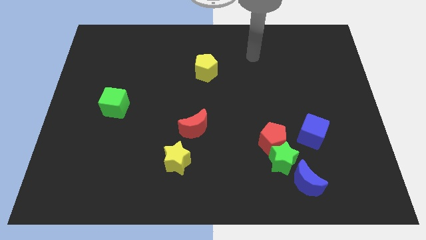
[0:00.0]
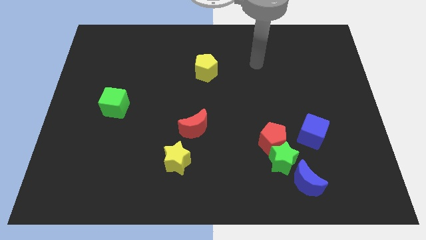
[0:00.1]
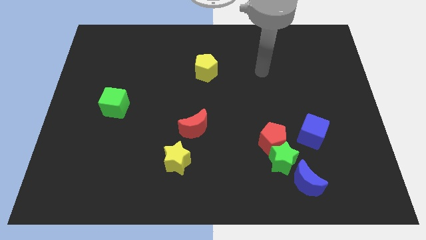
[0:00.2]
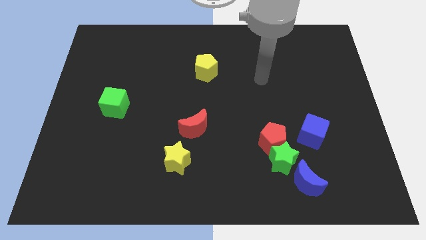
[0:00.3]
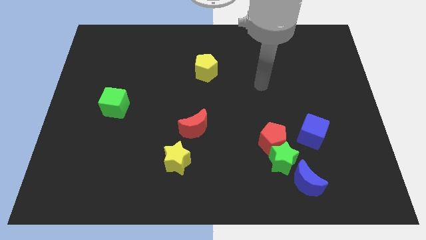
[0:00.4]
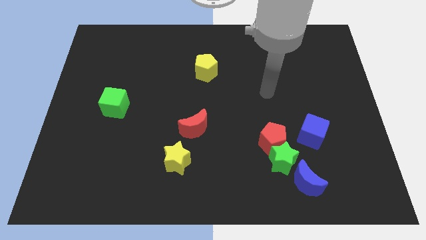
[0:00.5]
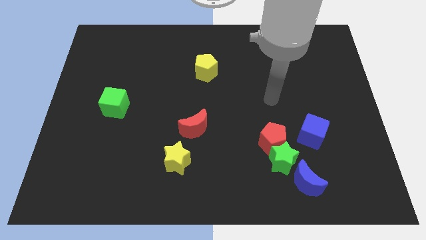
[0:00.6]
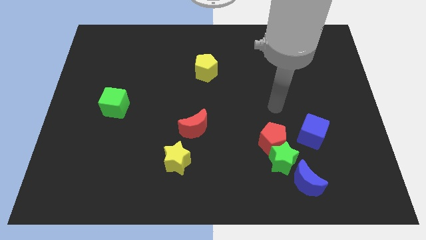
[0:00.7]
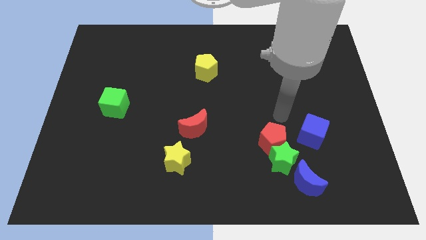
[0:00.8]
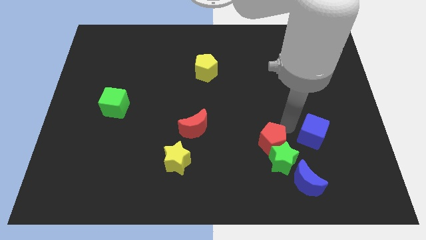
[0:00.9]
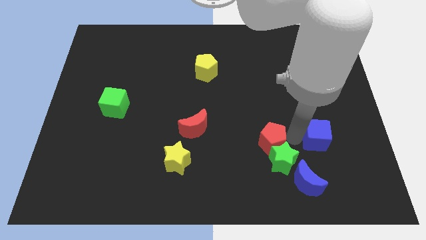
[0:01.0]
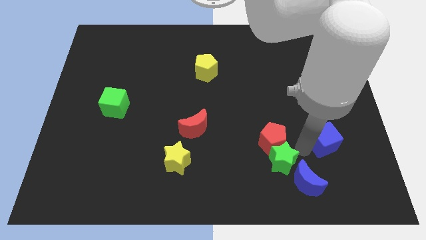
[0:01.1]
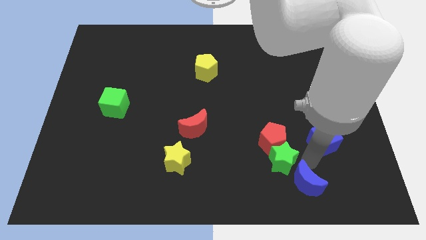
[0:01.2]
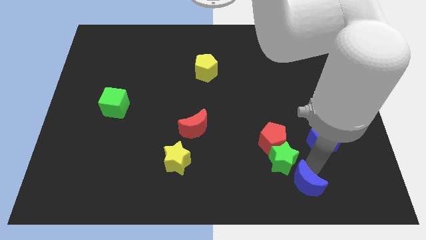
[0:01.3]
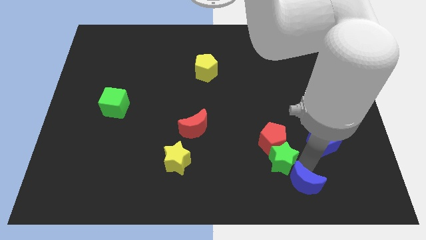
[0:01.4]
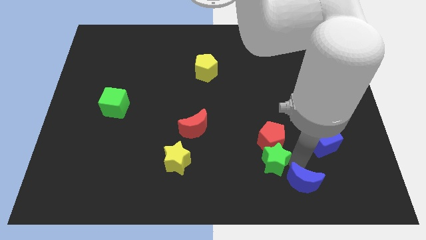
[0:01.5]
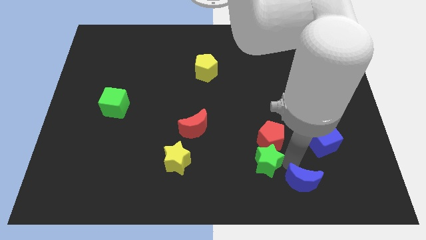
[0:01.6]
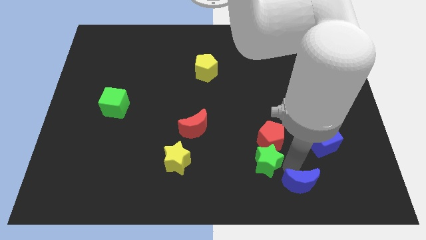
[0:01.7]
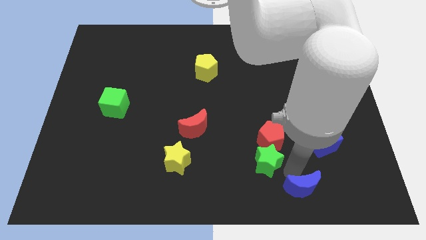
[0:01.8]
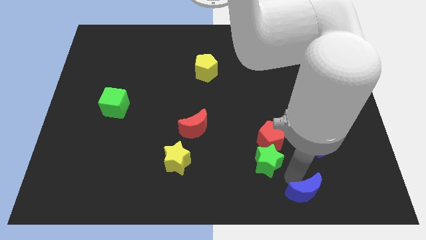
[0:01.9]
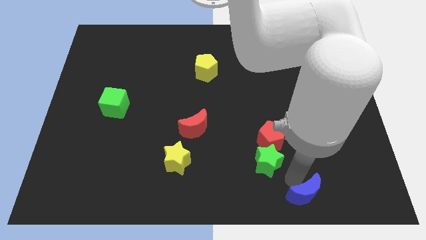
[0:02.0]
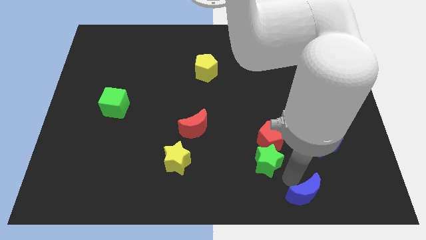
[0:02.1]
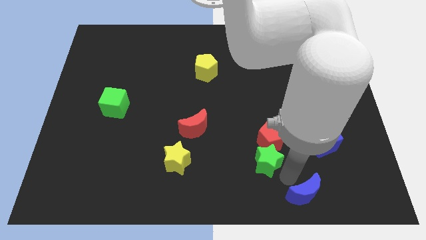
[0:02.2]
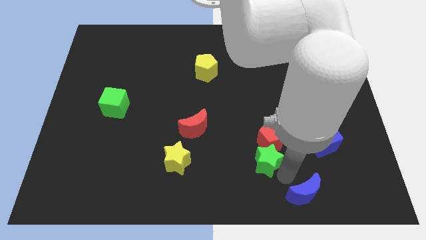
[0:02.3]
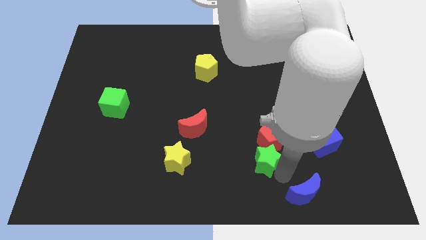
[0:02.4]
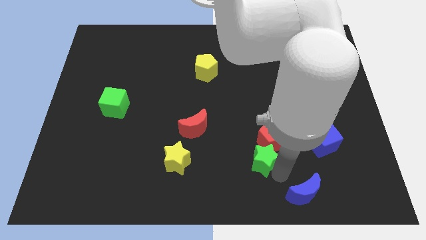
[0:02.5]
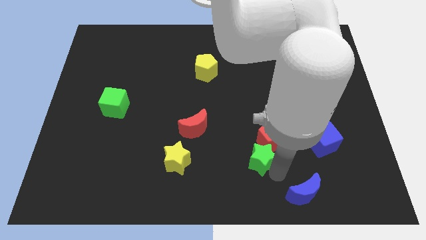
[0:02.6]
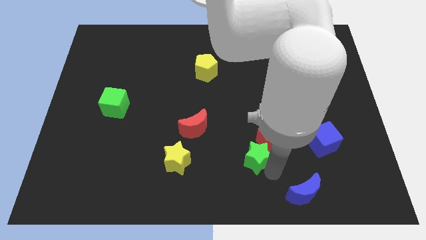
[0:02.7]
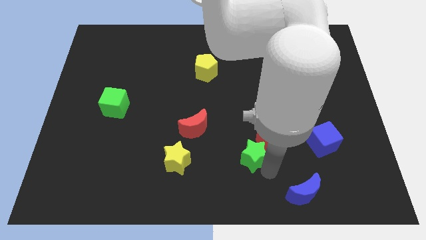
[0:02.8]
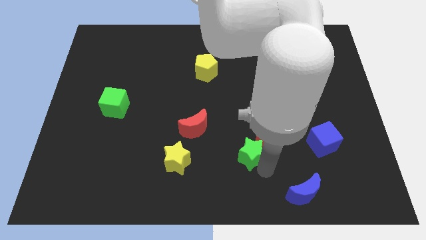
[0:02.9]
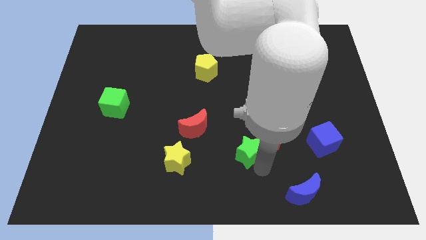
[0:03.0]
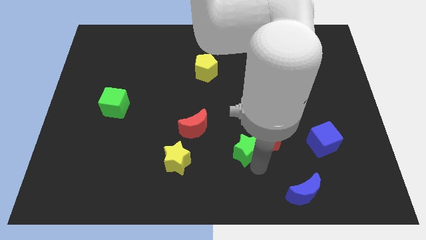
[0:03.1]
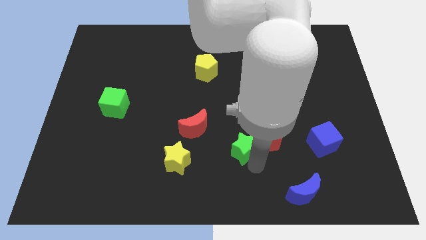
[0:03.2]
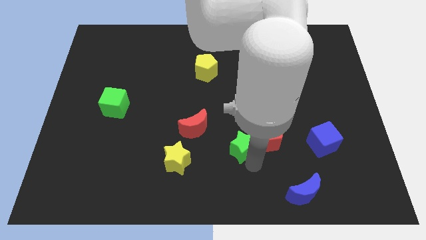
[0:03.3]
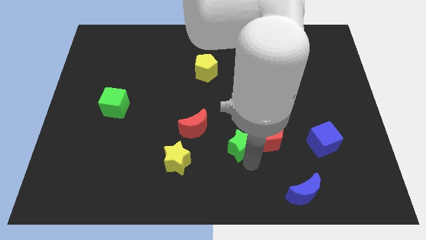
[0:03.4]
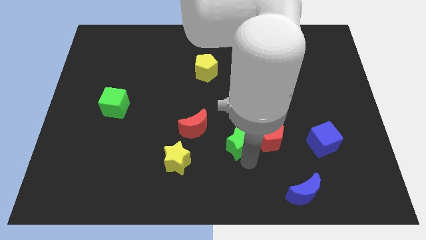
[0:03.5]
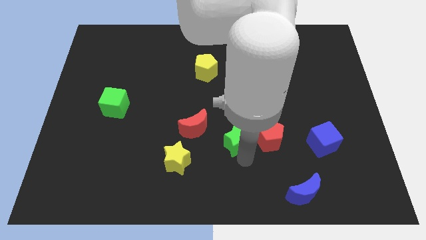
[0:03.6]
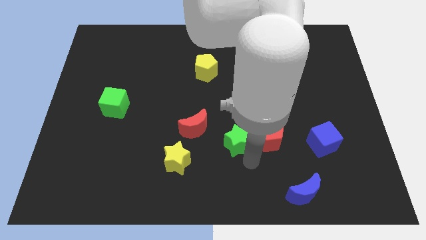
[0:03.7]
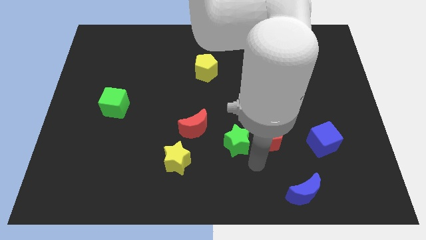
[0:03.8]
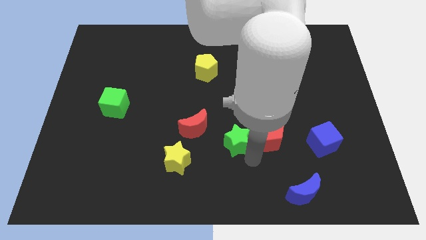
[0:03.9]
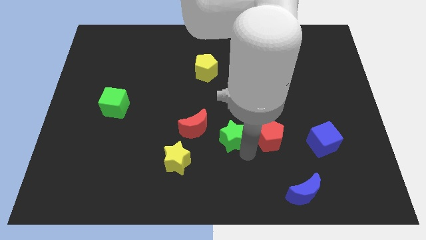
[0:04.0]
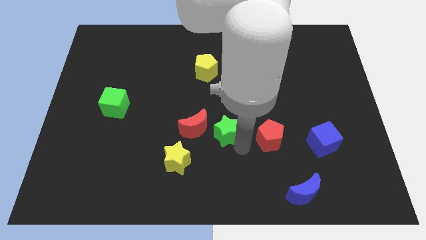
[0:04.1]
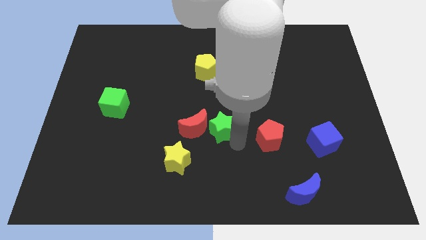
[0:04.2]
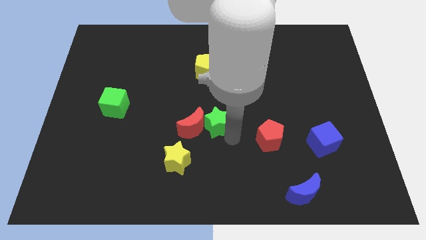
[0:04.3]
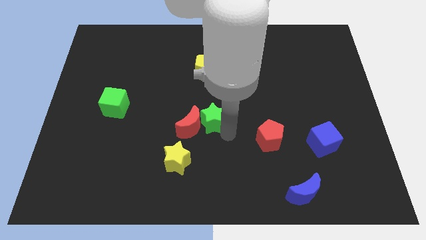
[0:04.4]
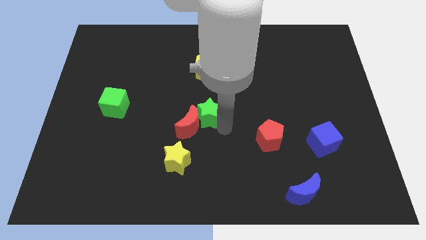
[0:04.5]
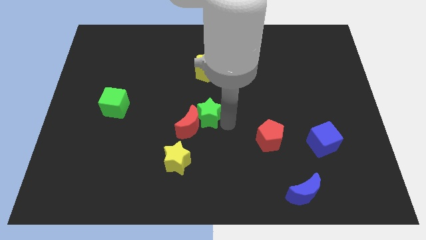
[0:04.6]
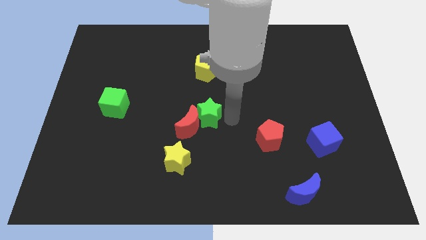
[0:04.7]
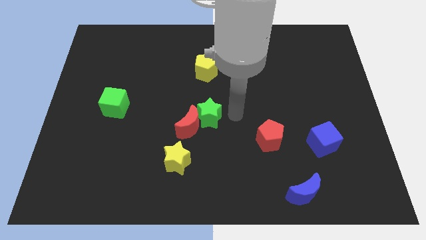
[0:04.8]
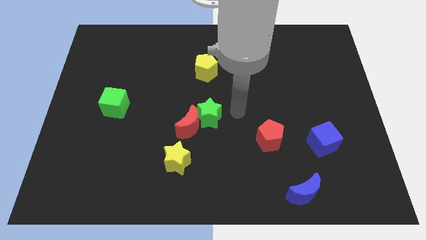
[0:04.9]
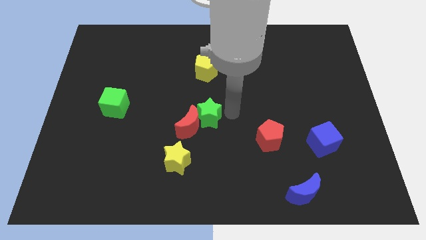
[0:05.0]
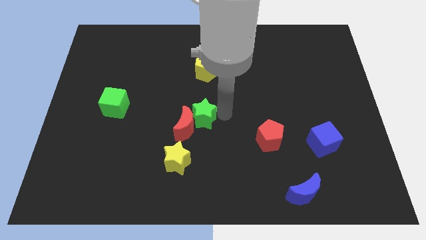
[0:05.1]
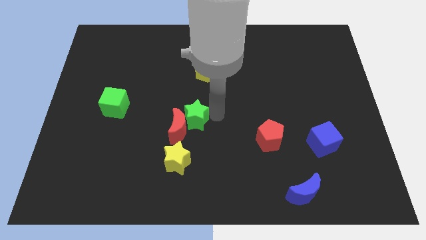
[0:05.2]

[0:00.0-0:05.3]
slide the green star to the top of the yellow star

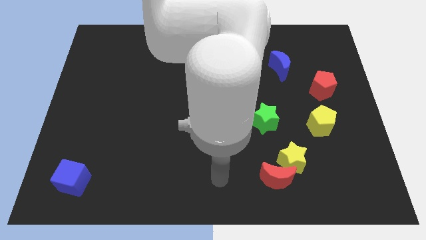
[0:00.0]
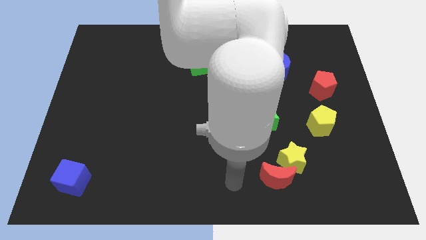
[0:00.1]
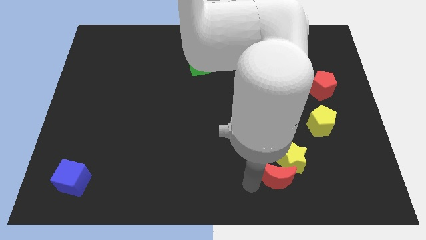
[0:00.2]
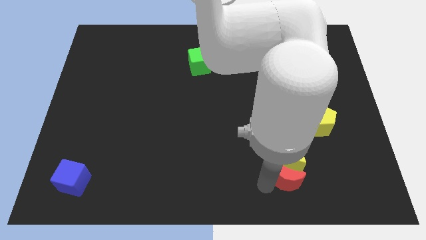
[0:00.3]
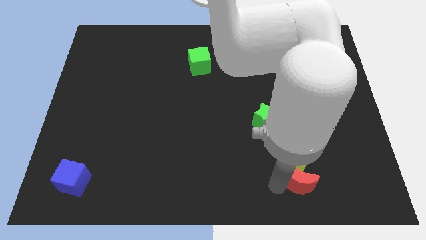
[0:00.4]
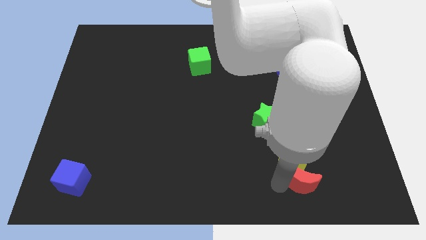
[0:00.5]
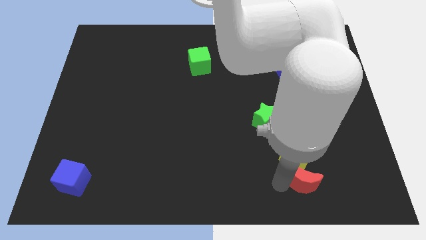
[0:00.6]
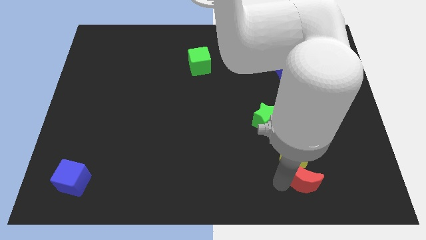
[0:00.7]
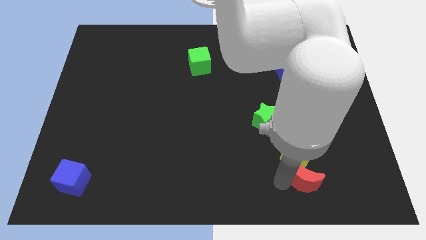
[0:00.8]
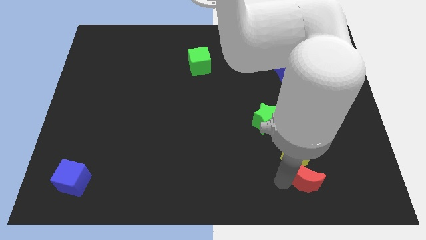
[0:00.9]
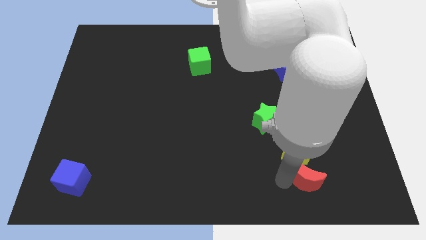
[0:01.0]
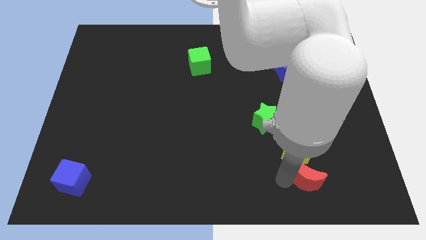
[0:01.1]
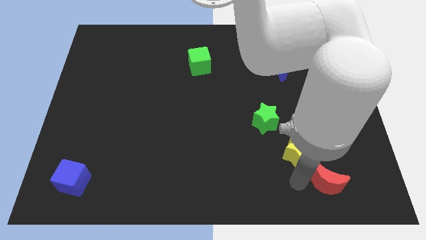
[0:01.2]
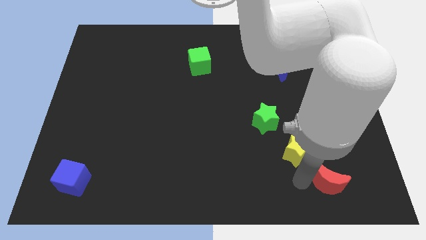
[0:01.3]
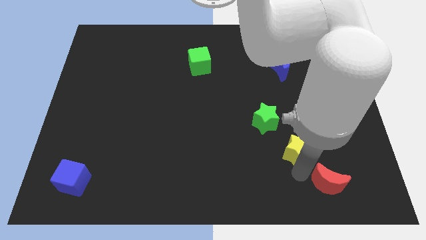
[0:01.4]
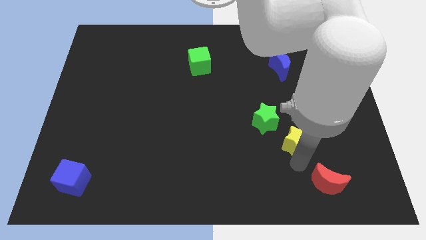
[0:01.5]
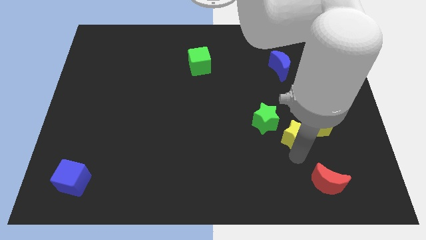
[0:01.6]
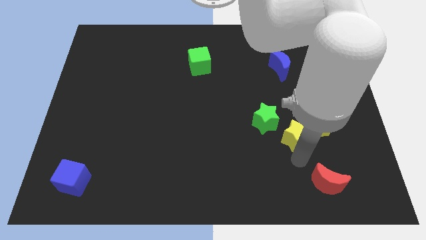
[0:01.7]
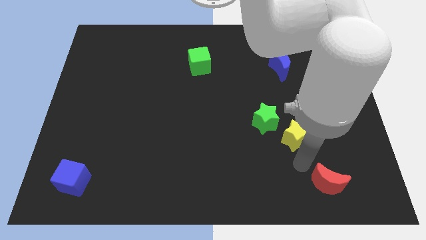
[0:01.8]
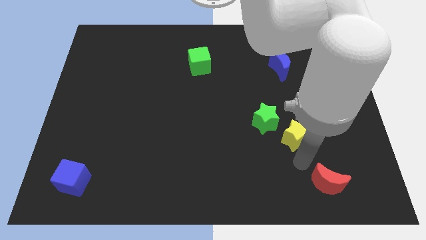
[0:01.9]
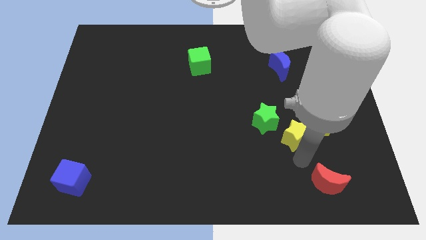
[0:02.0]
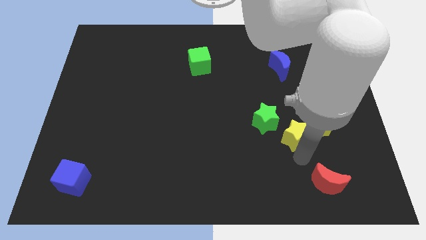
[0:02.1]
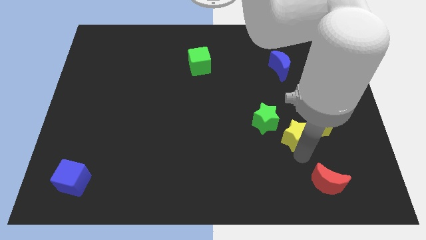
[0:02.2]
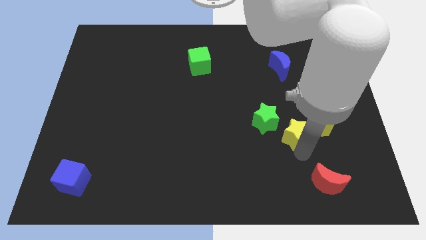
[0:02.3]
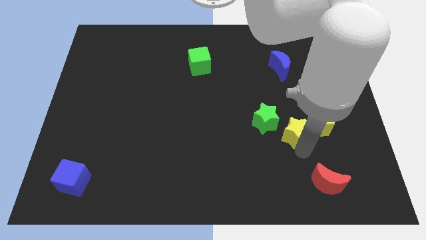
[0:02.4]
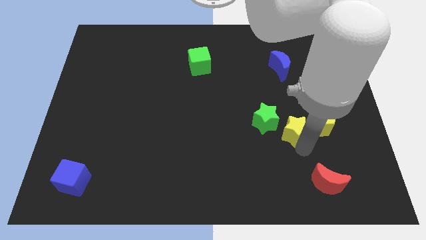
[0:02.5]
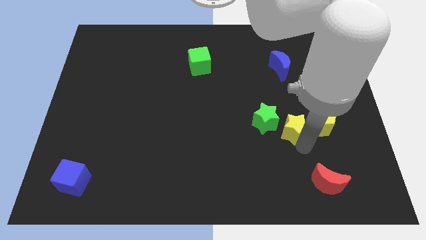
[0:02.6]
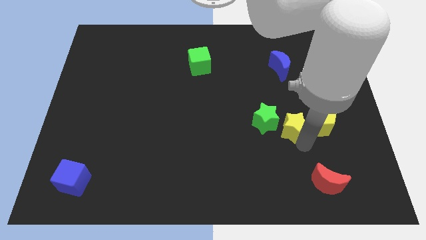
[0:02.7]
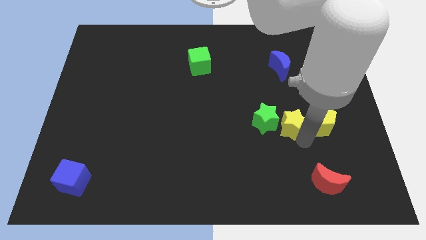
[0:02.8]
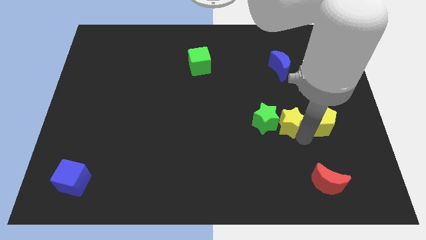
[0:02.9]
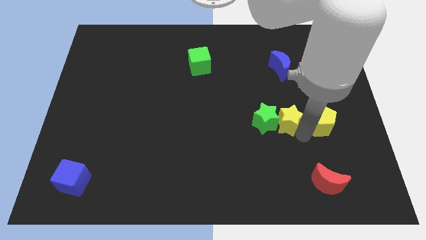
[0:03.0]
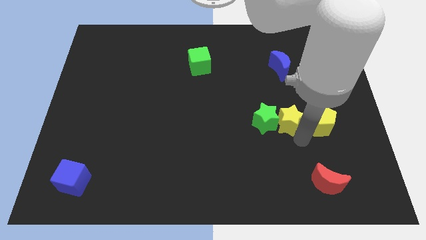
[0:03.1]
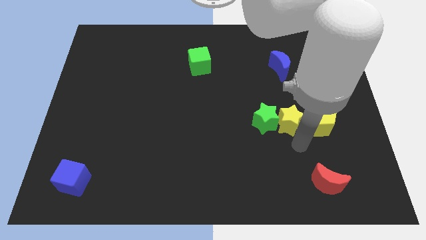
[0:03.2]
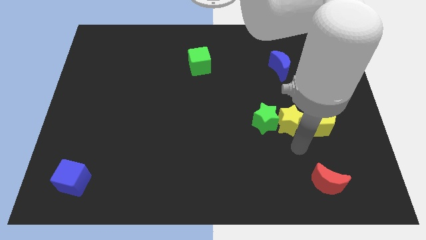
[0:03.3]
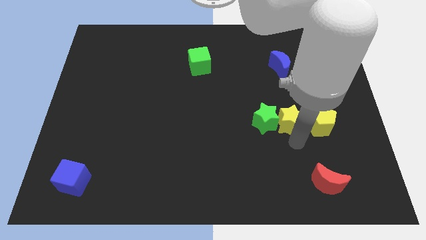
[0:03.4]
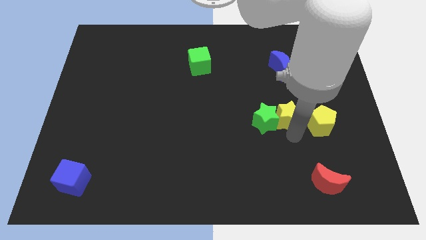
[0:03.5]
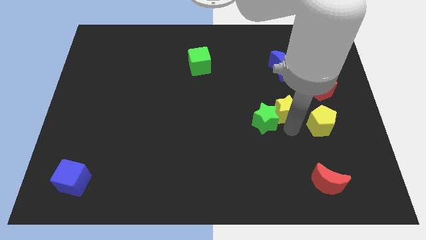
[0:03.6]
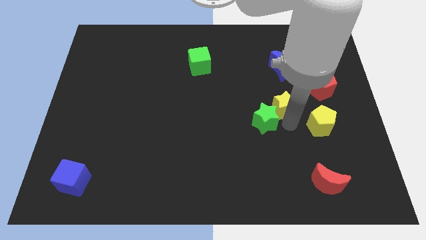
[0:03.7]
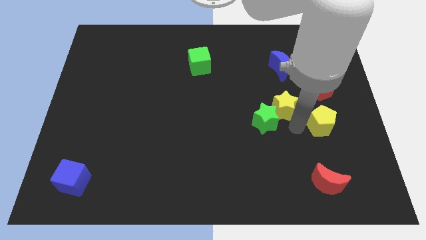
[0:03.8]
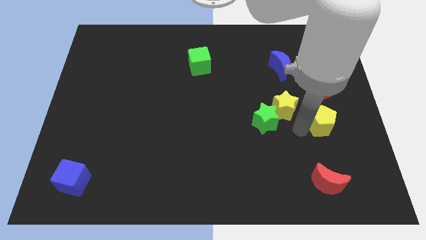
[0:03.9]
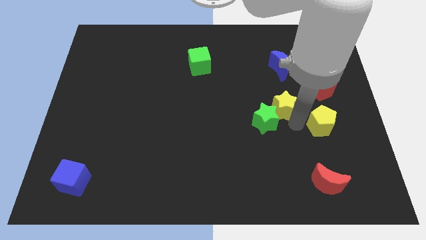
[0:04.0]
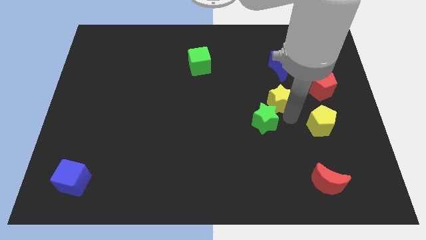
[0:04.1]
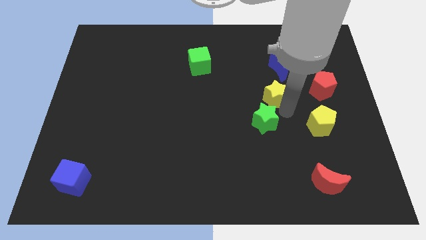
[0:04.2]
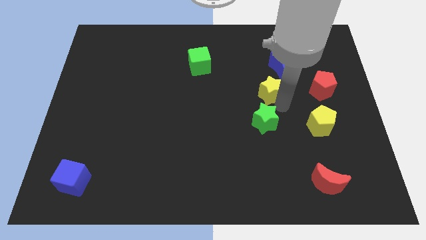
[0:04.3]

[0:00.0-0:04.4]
move the yellow star to the bottom left of the blue moon
